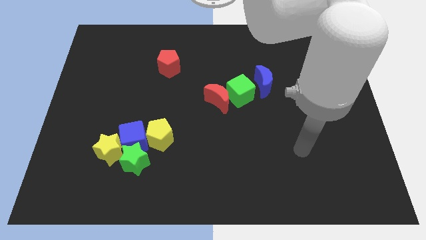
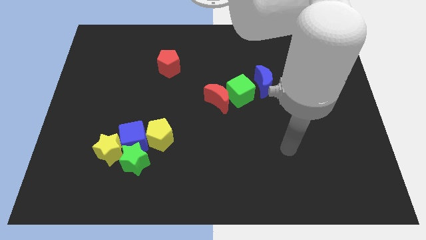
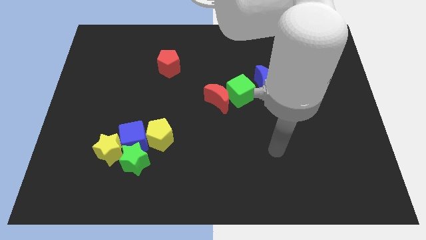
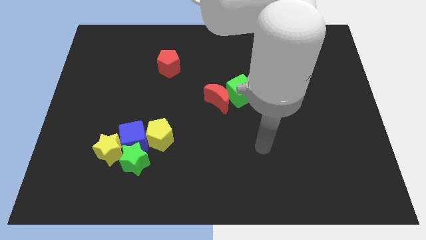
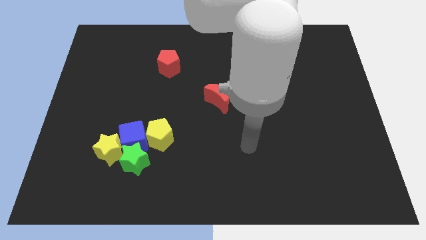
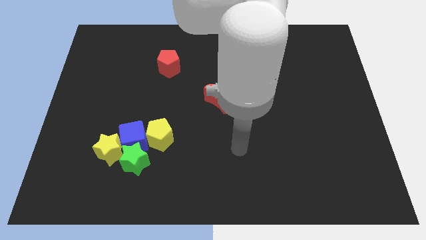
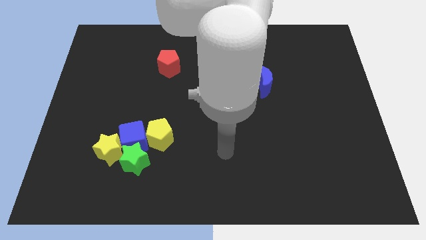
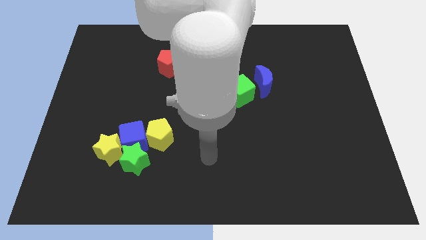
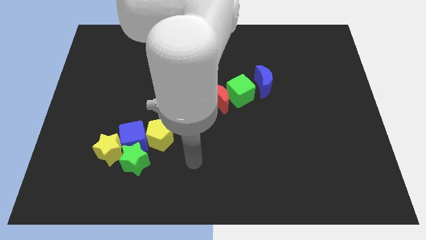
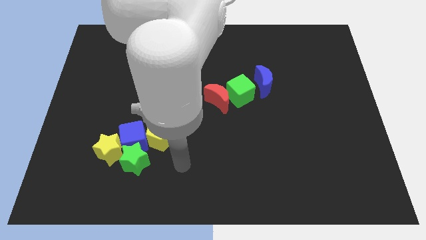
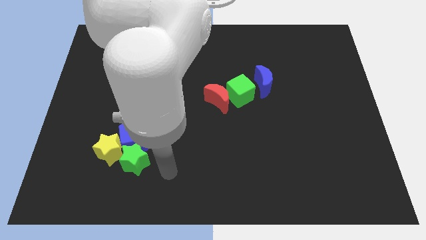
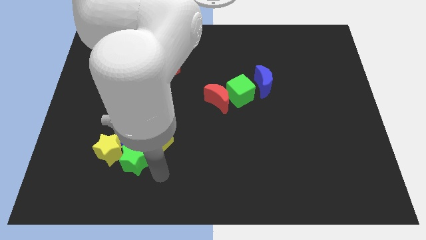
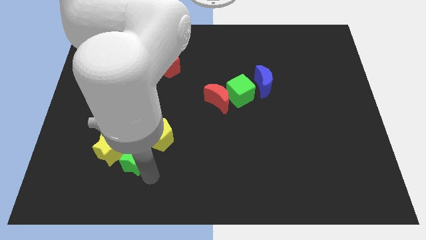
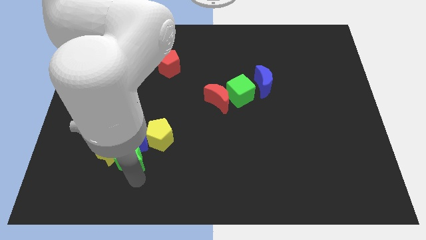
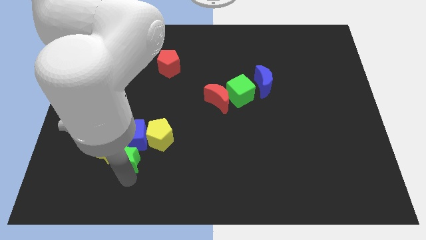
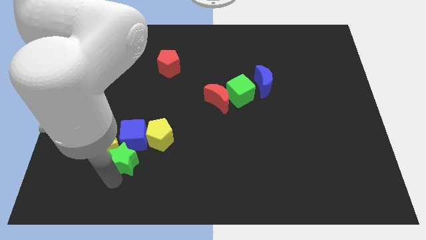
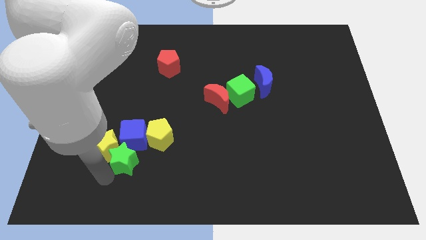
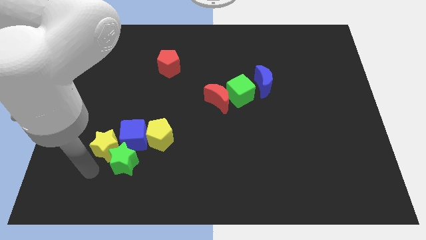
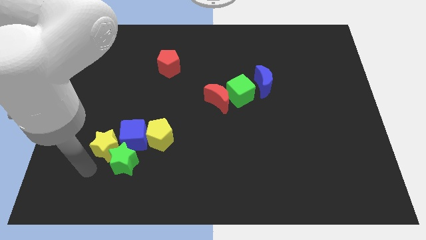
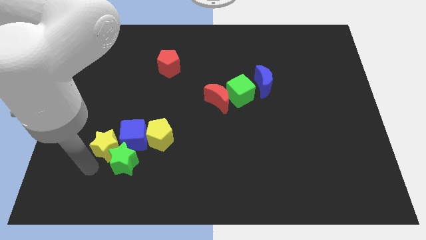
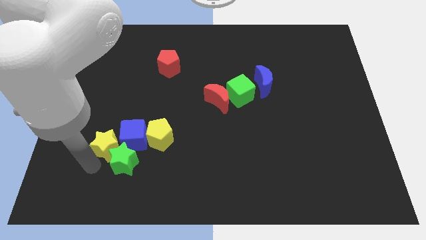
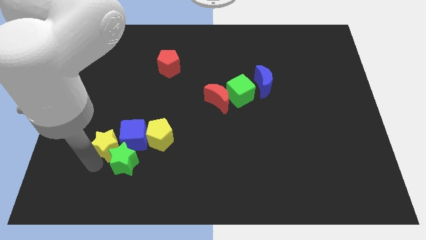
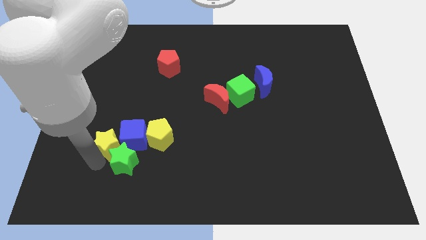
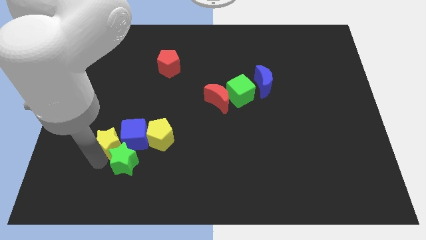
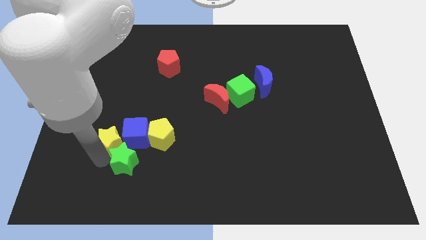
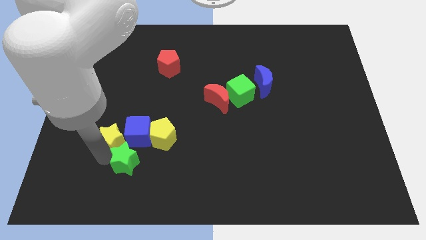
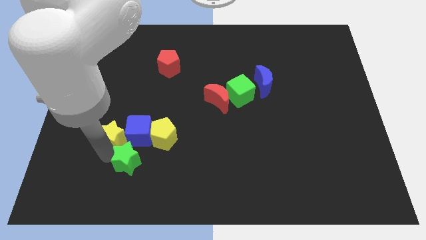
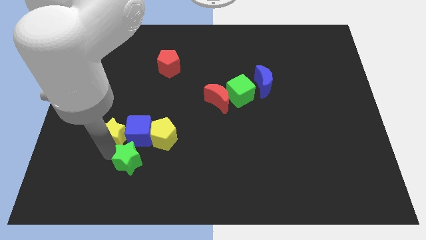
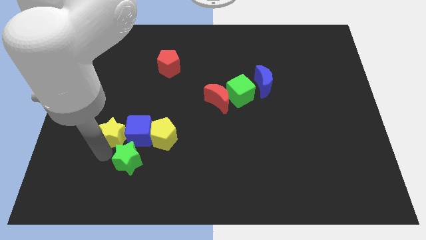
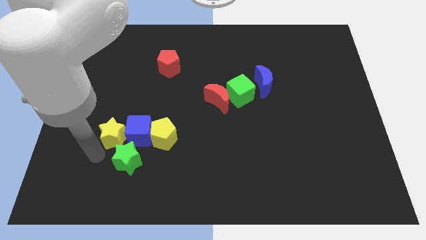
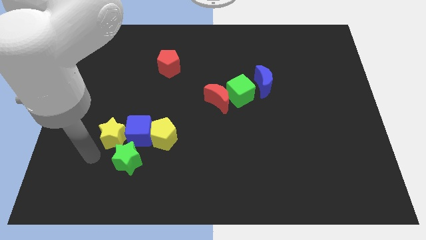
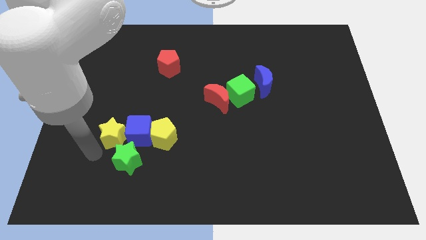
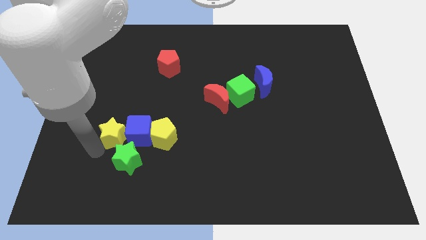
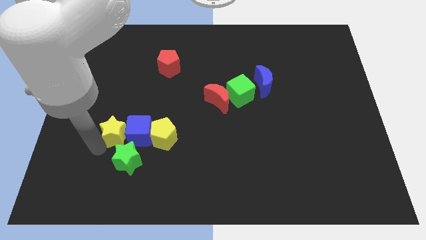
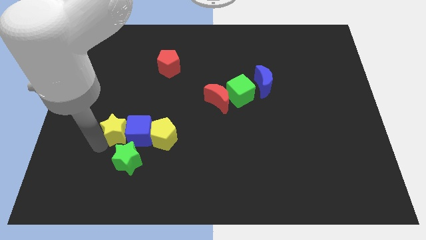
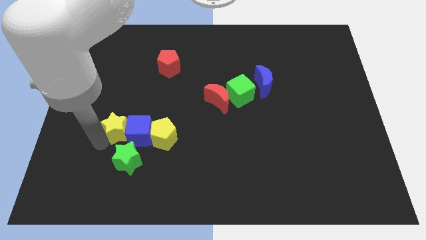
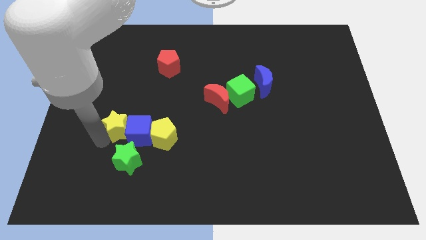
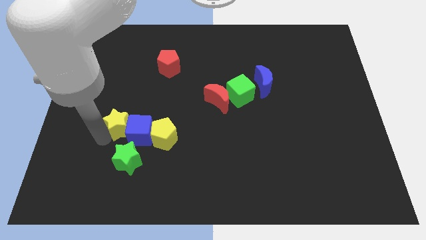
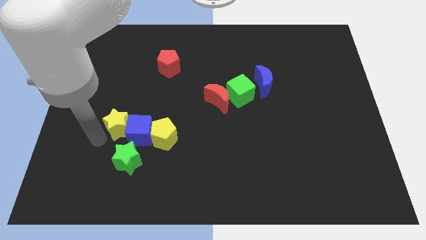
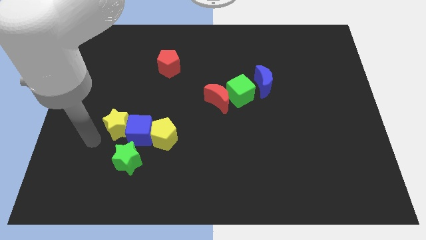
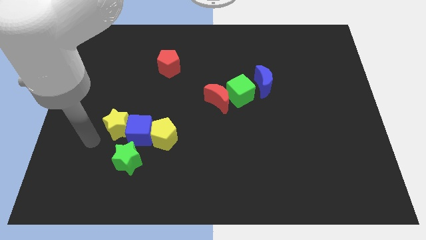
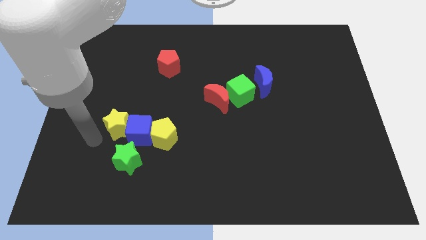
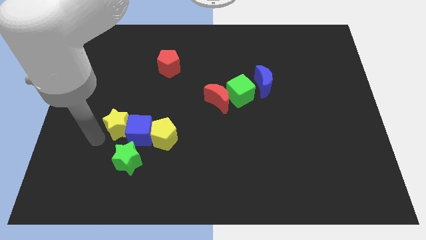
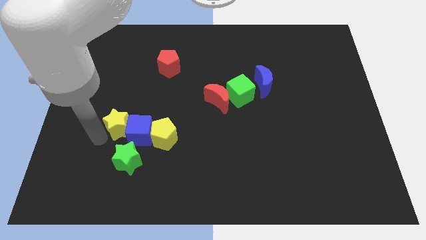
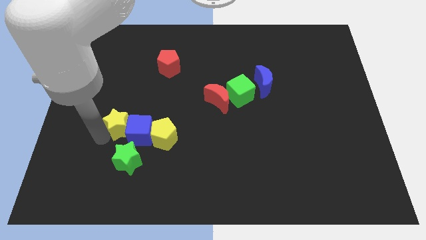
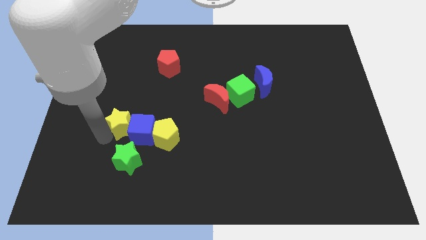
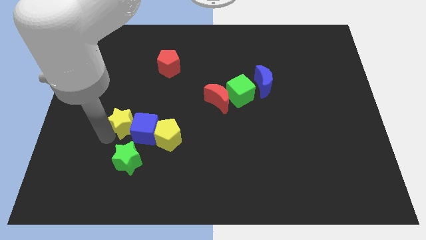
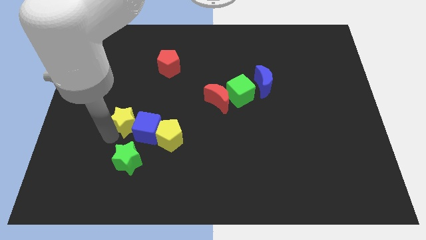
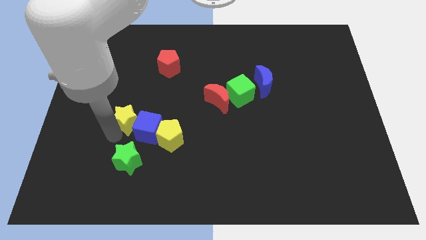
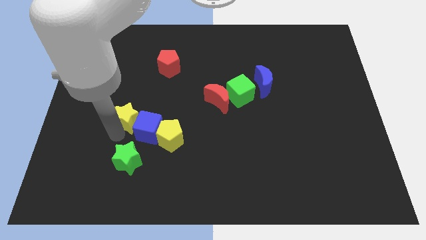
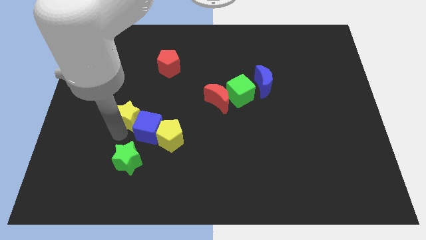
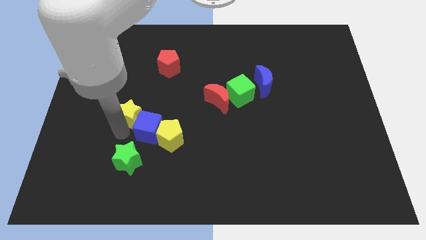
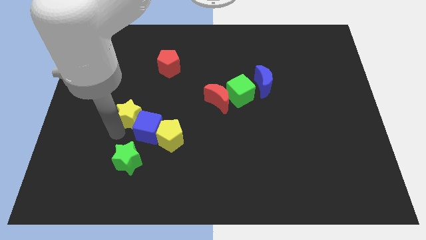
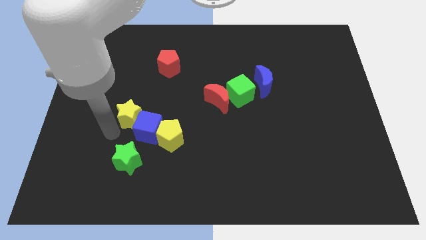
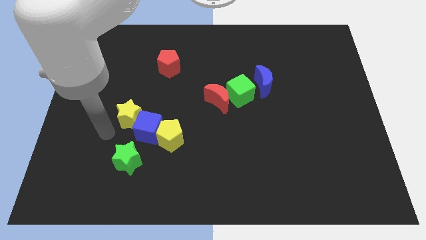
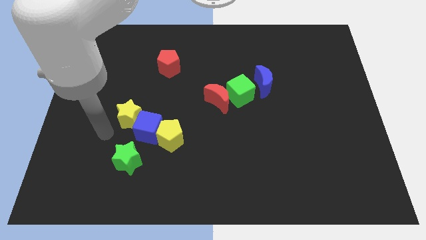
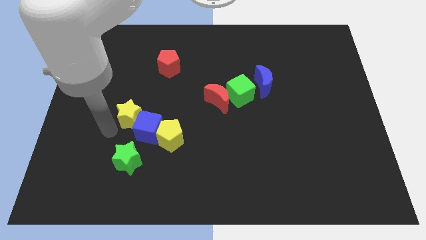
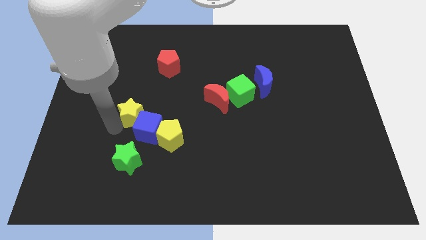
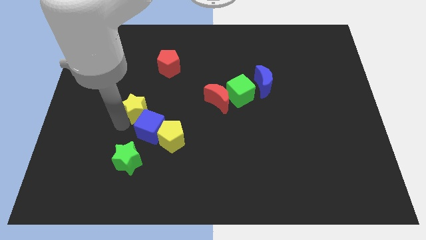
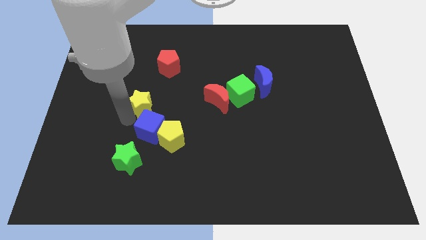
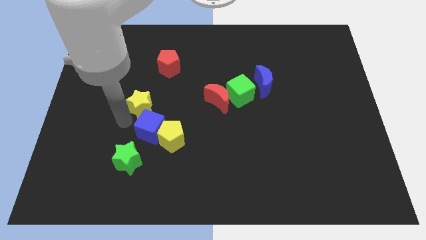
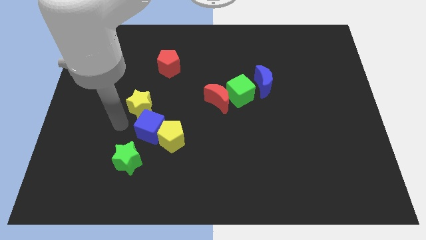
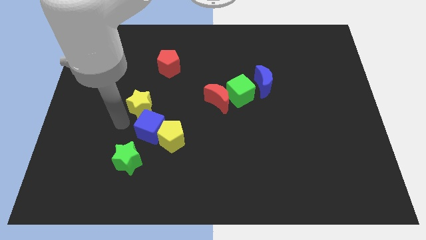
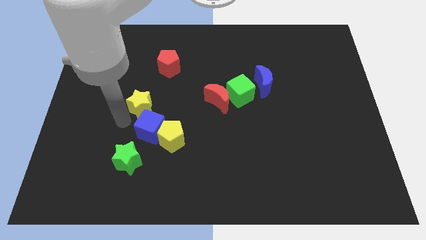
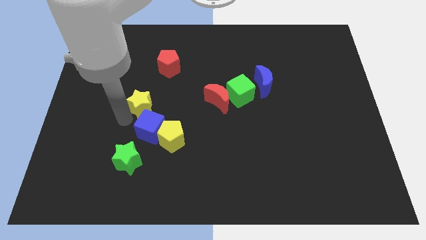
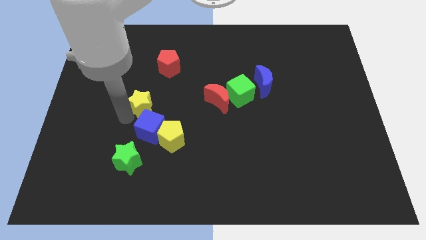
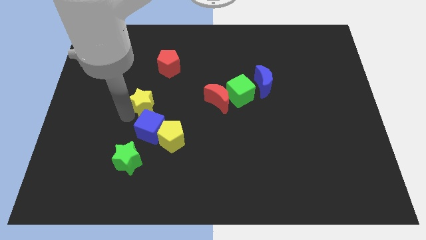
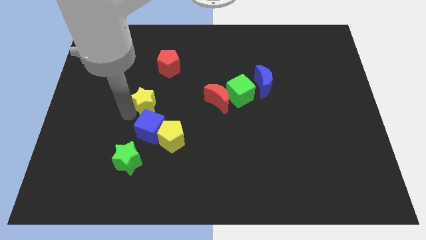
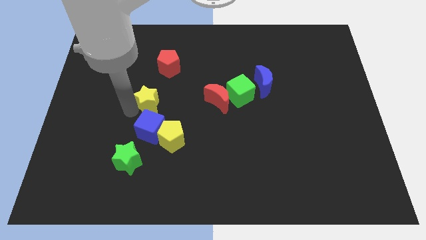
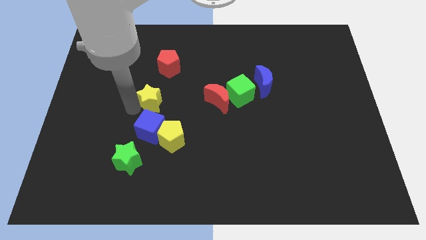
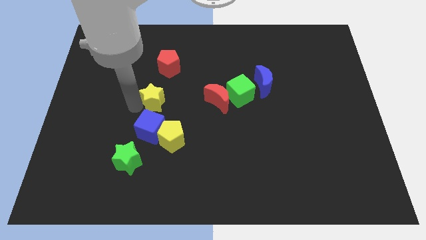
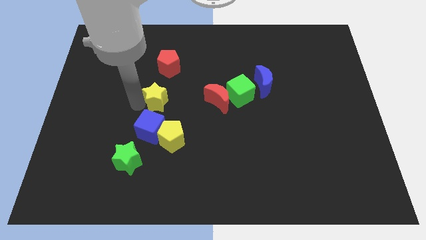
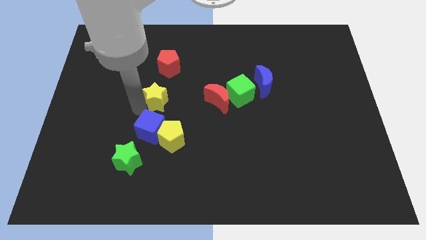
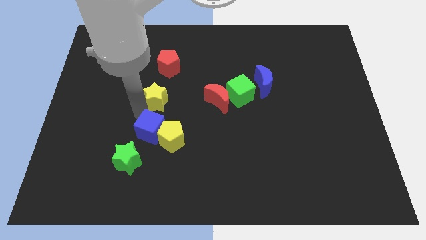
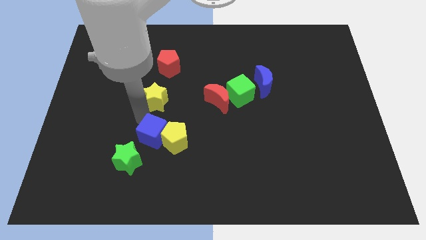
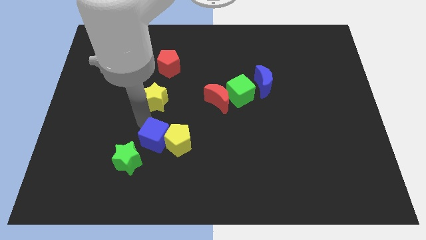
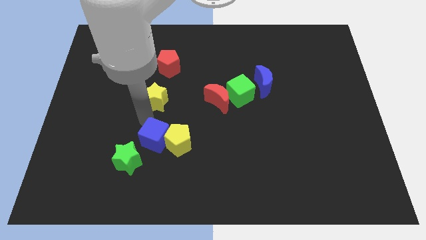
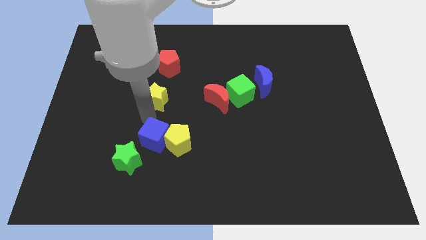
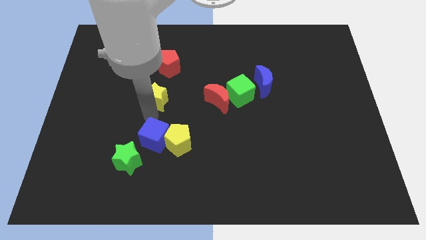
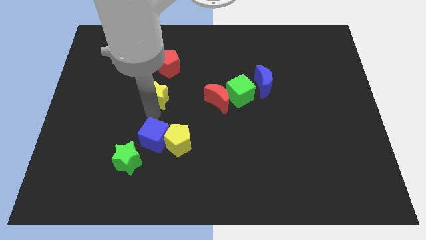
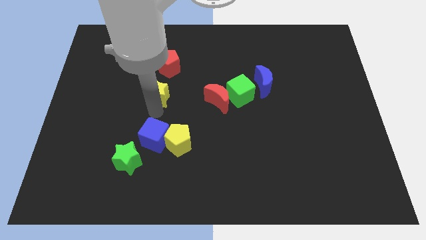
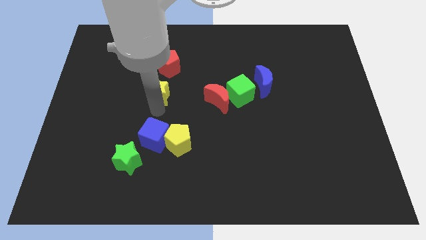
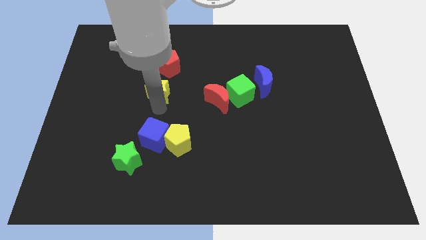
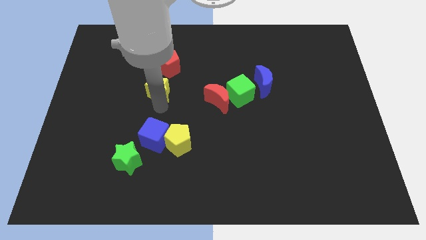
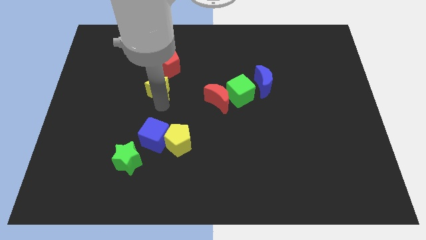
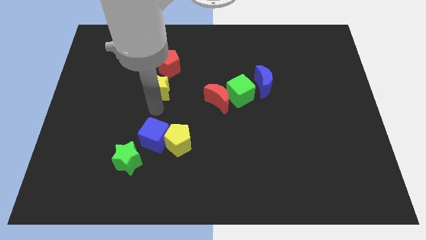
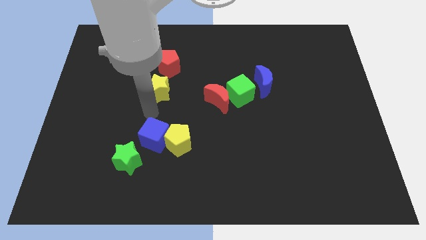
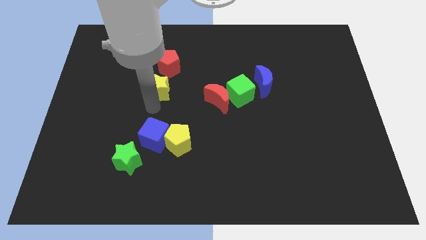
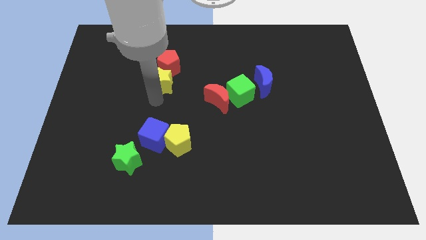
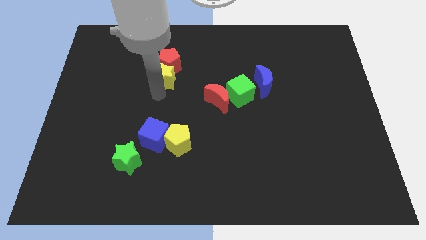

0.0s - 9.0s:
move the yellow star towards the red pentagon
